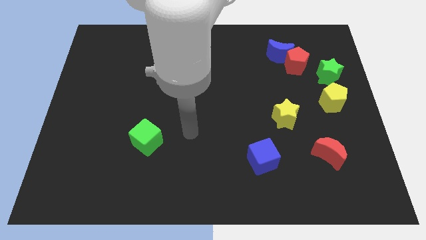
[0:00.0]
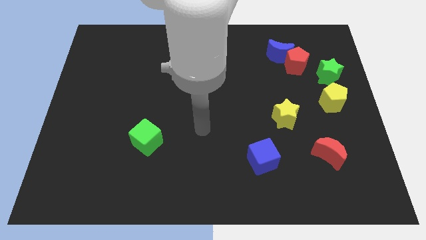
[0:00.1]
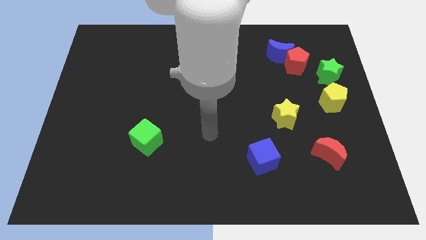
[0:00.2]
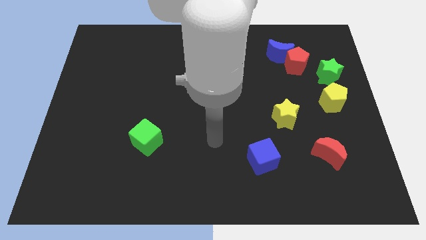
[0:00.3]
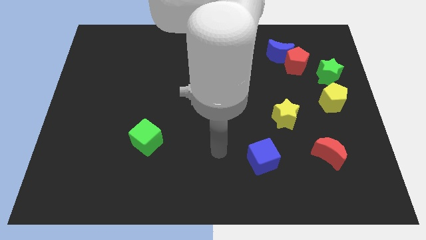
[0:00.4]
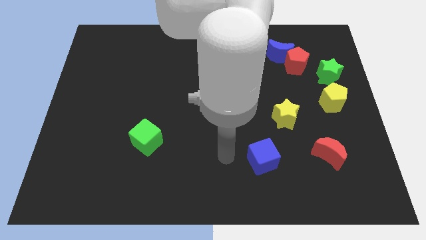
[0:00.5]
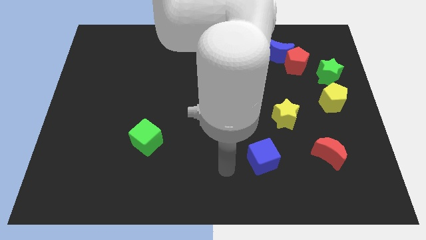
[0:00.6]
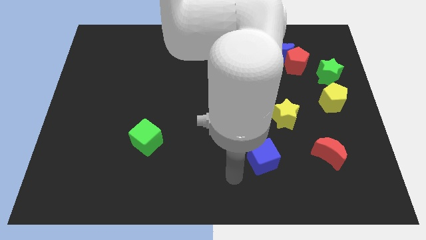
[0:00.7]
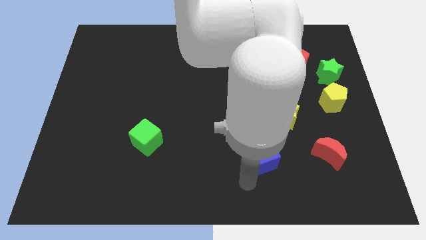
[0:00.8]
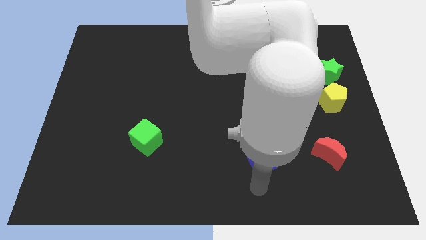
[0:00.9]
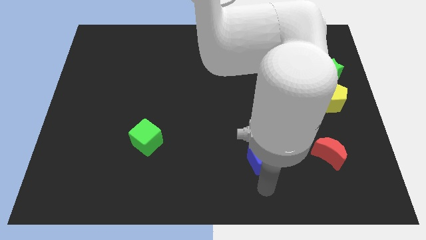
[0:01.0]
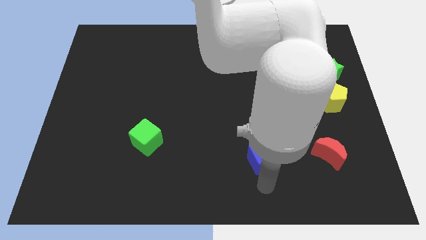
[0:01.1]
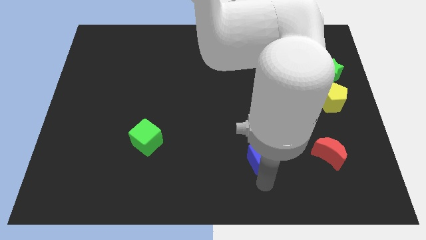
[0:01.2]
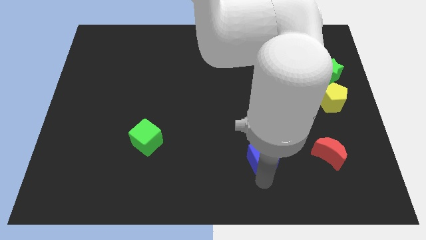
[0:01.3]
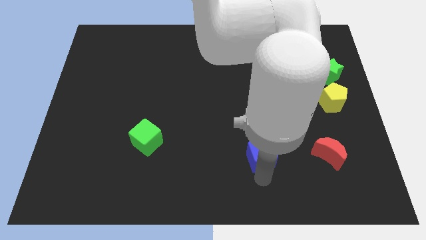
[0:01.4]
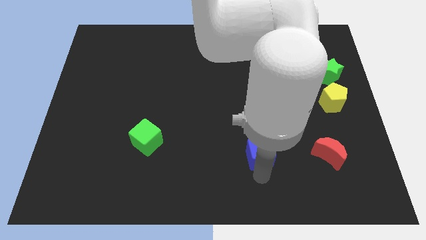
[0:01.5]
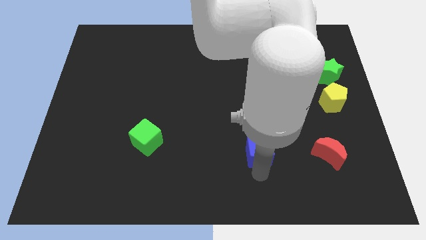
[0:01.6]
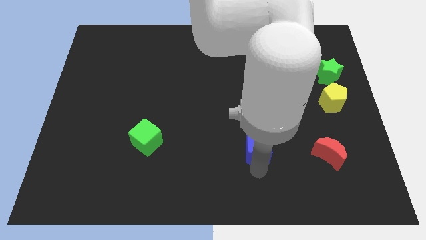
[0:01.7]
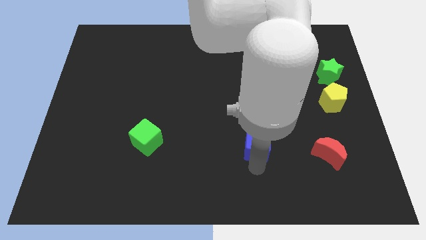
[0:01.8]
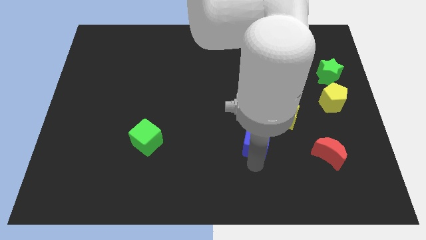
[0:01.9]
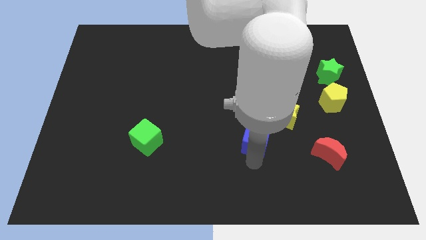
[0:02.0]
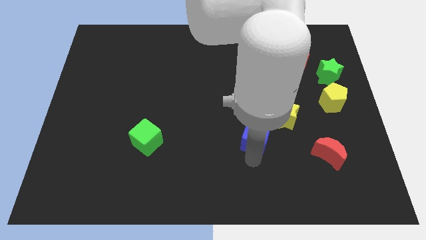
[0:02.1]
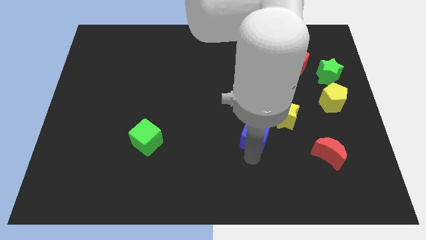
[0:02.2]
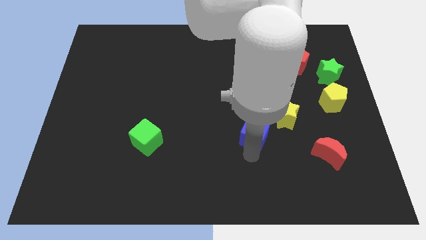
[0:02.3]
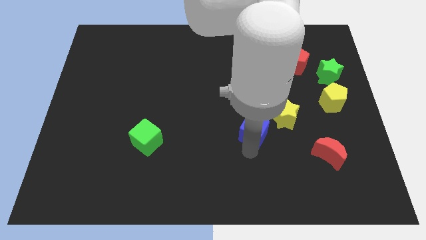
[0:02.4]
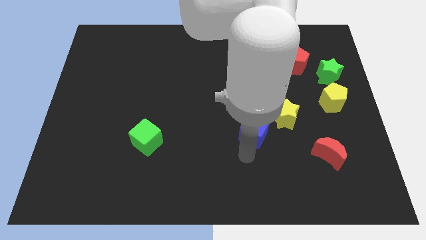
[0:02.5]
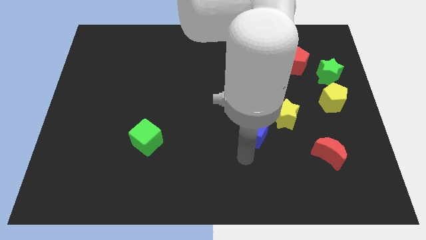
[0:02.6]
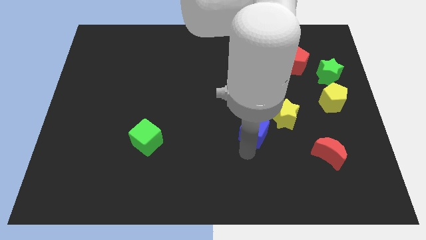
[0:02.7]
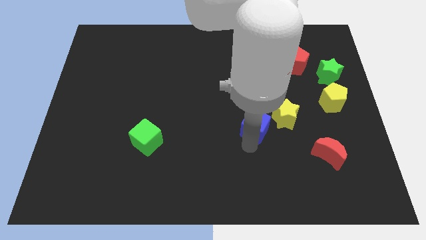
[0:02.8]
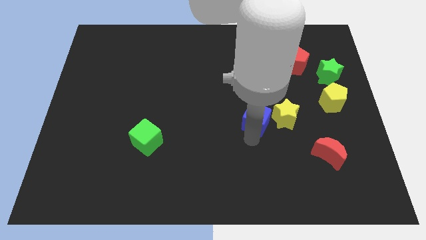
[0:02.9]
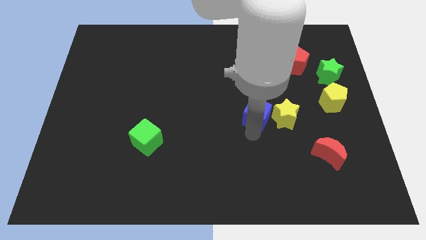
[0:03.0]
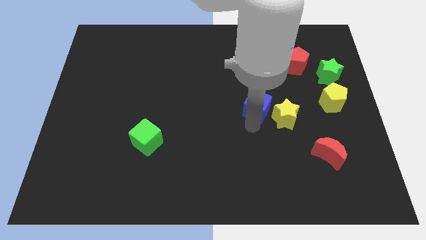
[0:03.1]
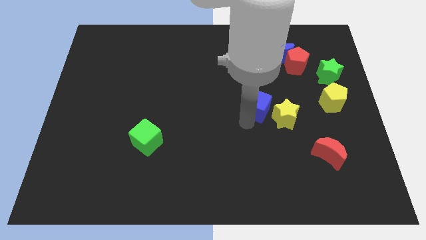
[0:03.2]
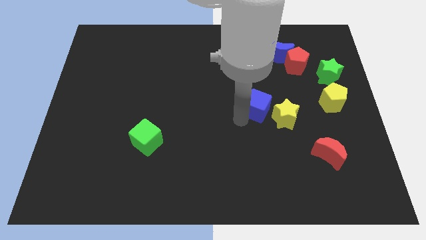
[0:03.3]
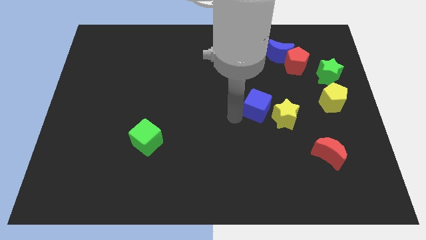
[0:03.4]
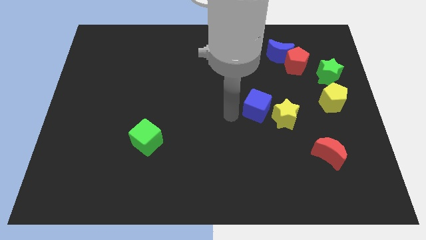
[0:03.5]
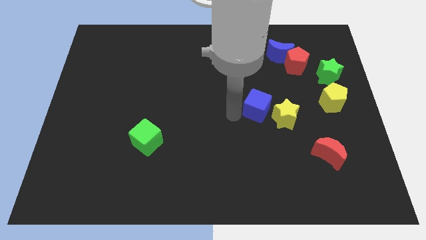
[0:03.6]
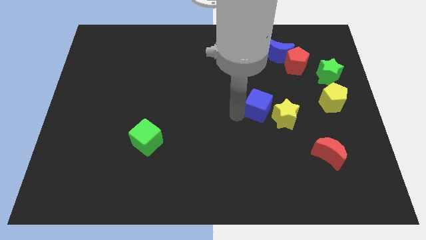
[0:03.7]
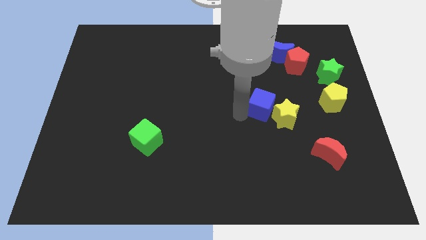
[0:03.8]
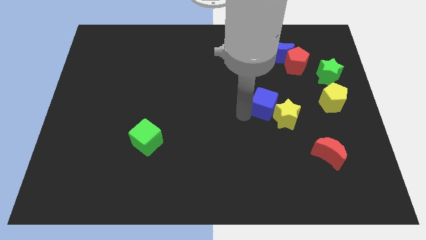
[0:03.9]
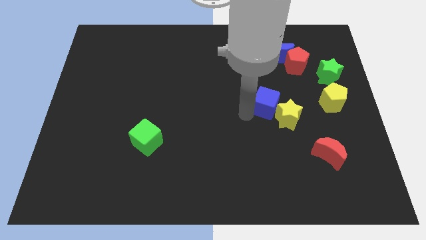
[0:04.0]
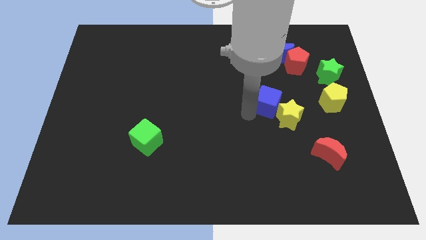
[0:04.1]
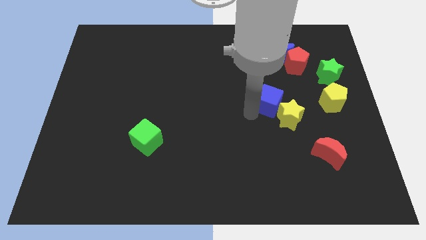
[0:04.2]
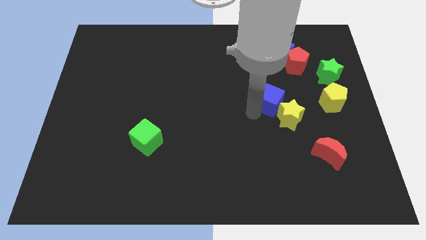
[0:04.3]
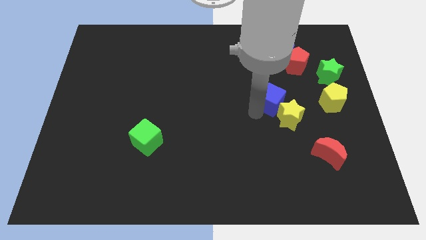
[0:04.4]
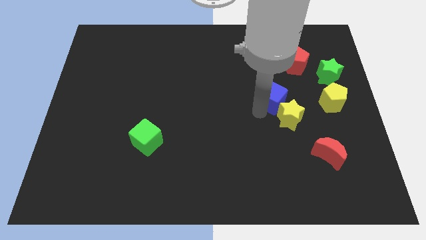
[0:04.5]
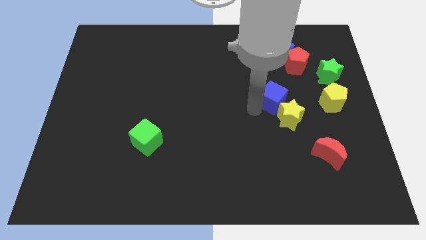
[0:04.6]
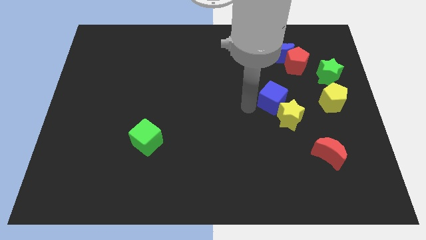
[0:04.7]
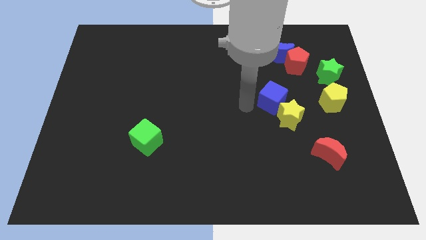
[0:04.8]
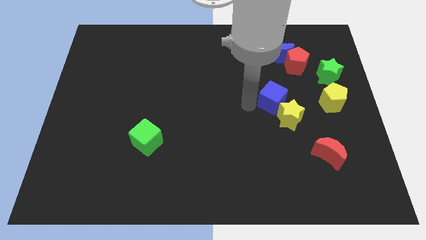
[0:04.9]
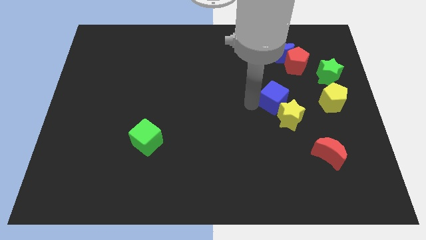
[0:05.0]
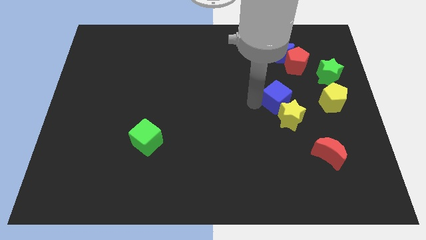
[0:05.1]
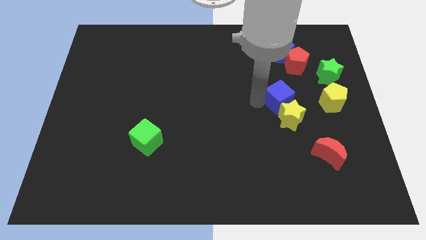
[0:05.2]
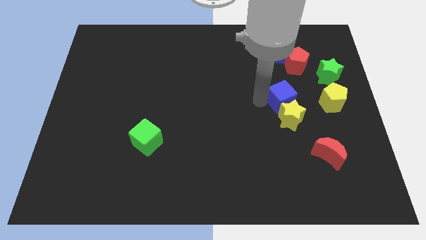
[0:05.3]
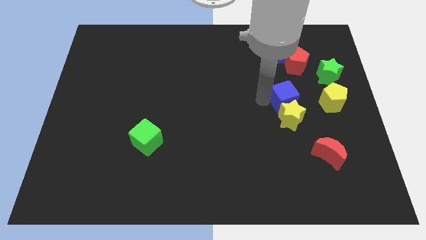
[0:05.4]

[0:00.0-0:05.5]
move the blue cube below the red pentagon

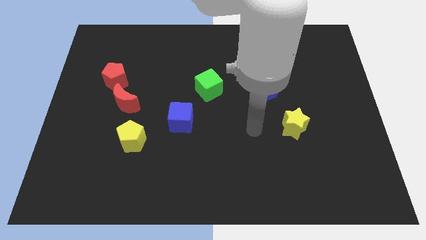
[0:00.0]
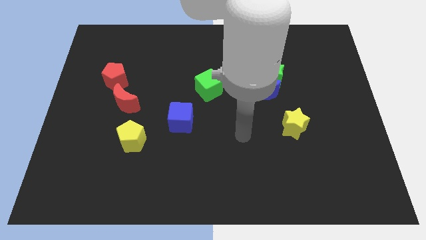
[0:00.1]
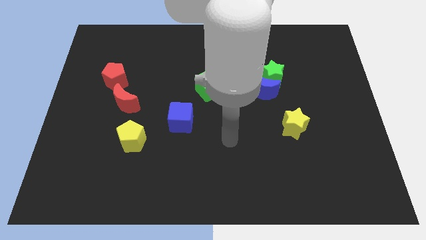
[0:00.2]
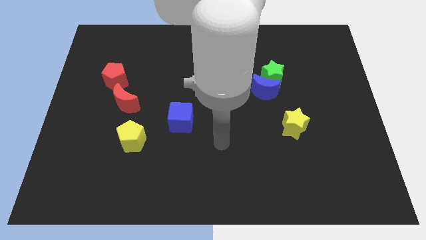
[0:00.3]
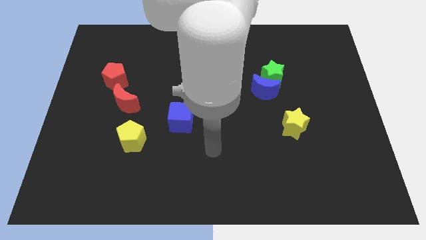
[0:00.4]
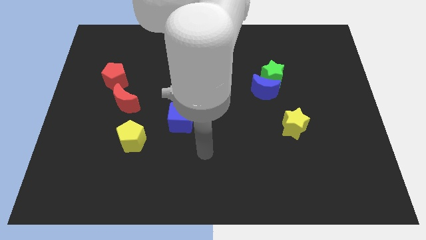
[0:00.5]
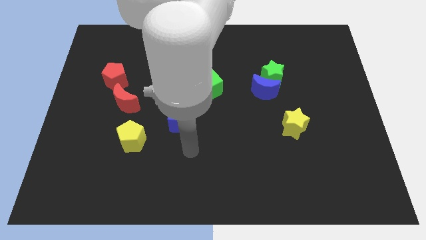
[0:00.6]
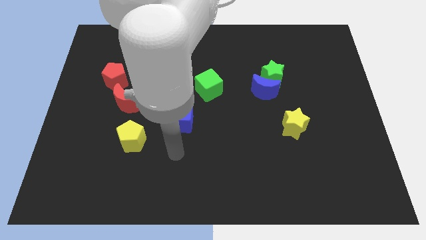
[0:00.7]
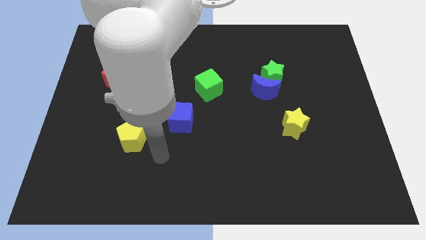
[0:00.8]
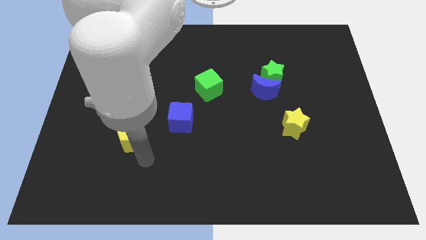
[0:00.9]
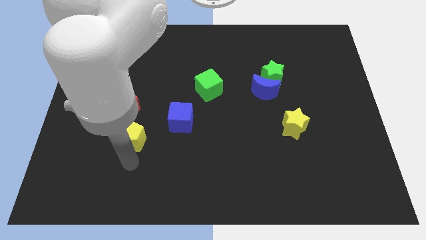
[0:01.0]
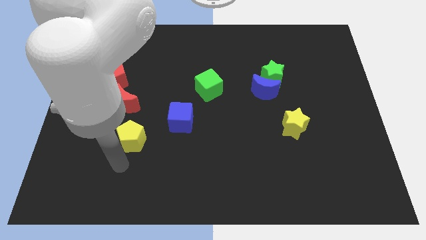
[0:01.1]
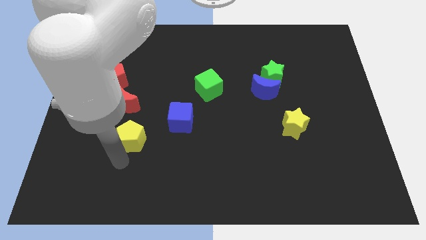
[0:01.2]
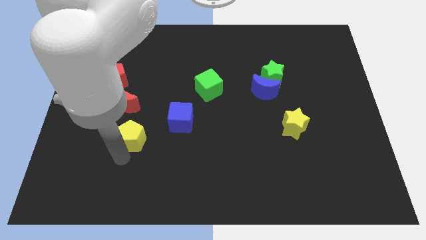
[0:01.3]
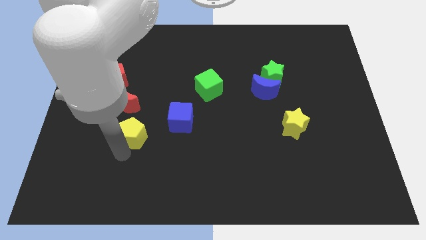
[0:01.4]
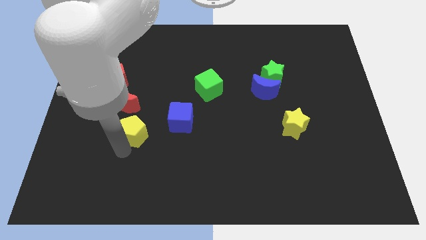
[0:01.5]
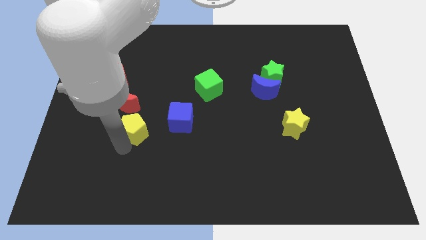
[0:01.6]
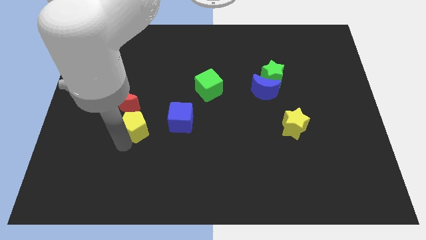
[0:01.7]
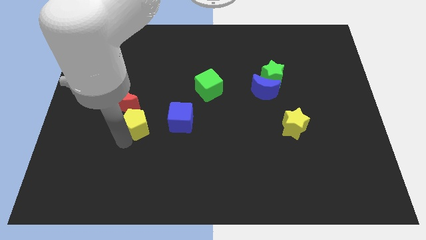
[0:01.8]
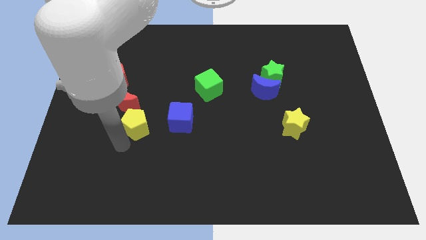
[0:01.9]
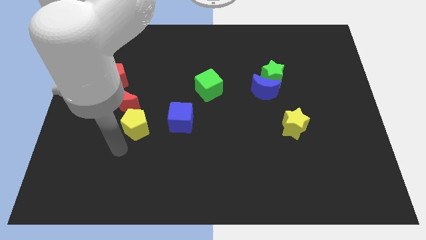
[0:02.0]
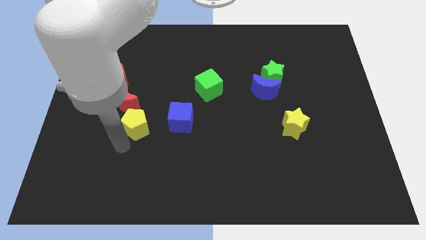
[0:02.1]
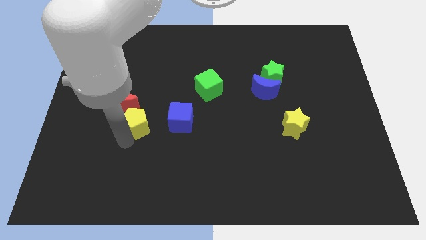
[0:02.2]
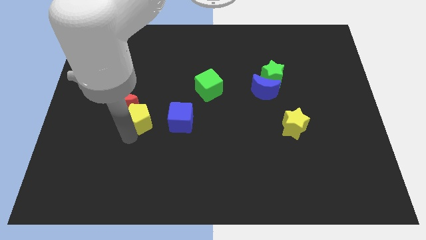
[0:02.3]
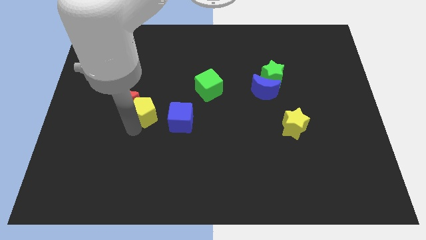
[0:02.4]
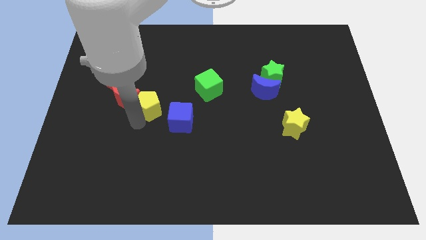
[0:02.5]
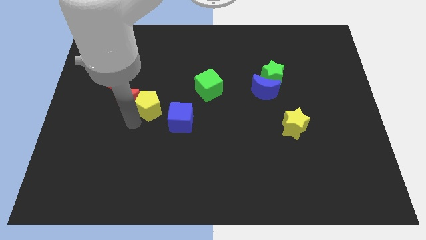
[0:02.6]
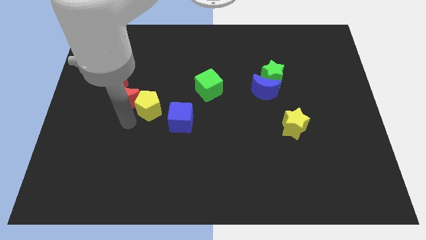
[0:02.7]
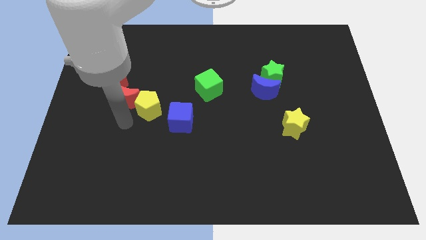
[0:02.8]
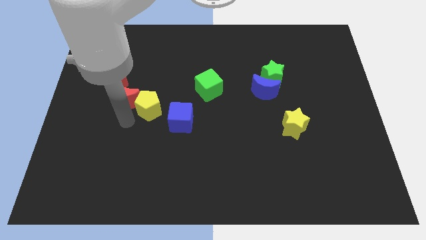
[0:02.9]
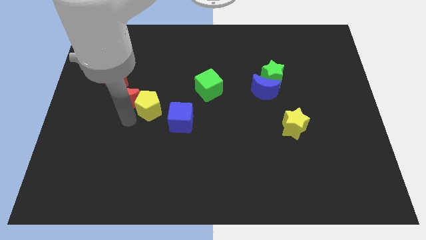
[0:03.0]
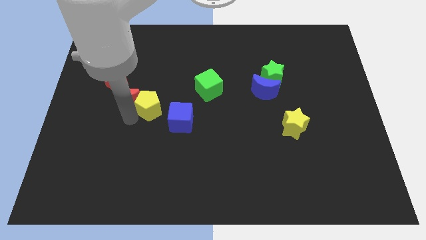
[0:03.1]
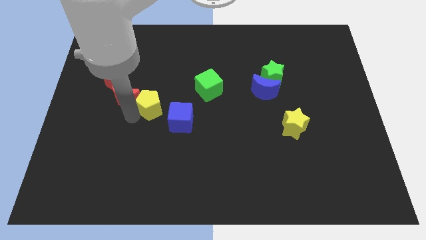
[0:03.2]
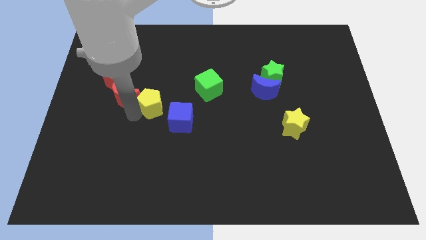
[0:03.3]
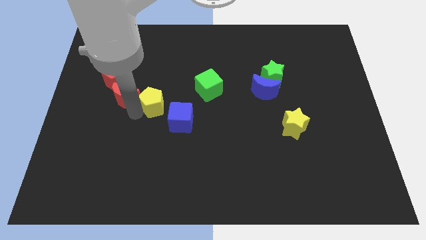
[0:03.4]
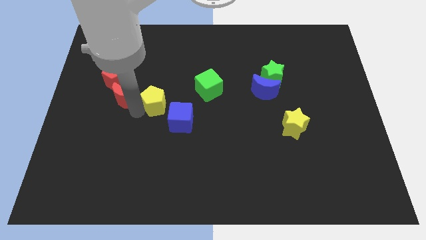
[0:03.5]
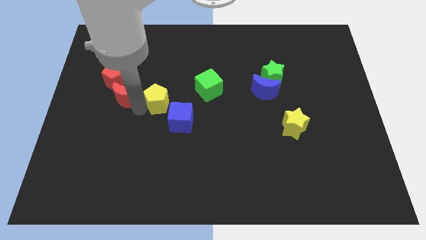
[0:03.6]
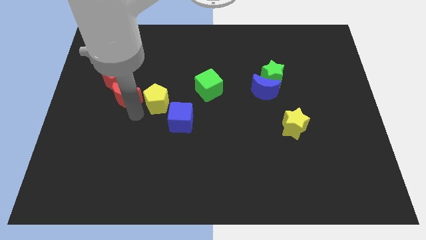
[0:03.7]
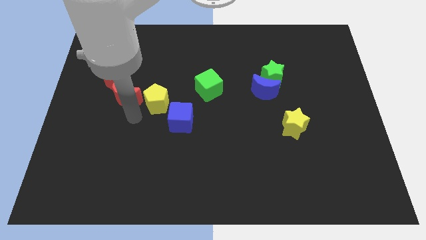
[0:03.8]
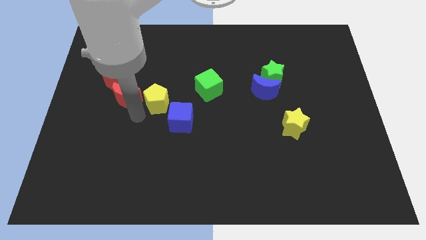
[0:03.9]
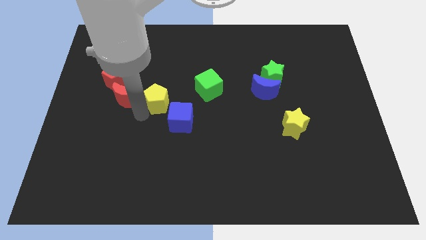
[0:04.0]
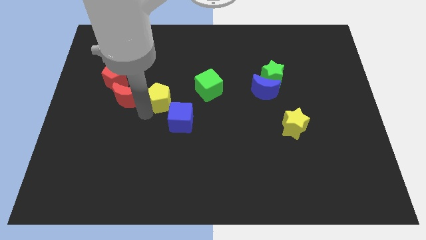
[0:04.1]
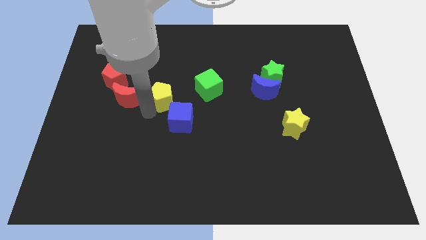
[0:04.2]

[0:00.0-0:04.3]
slide the yellow pentagon above the blue cube
